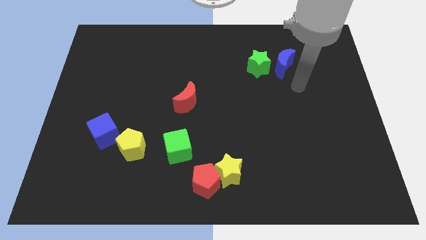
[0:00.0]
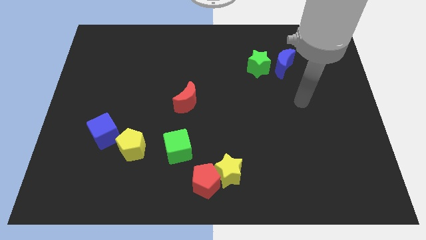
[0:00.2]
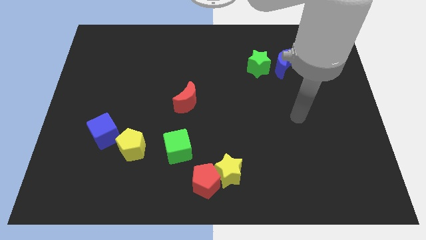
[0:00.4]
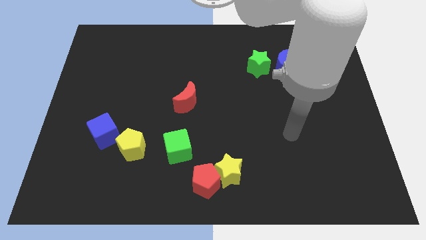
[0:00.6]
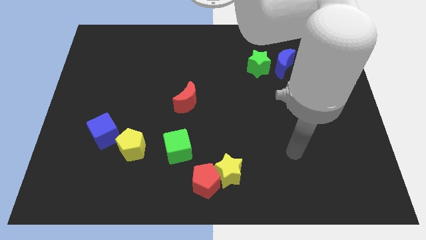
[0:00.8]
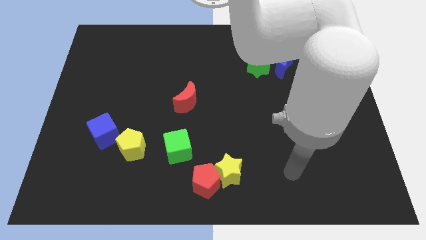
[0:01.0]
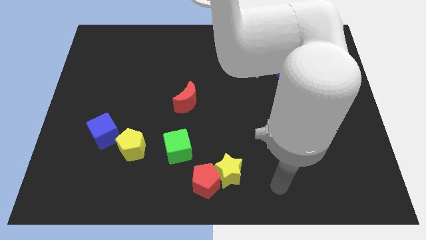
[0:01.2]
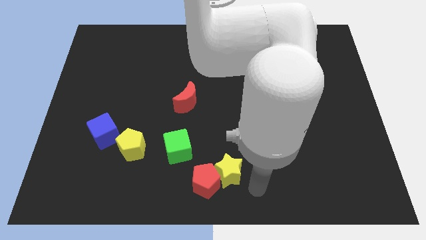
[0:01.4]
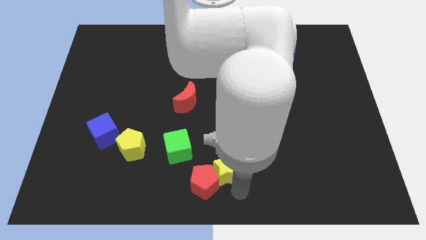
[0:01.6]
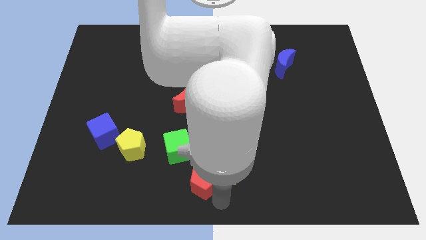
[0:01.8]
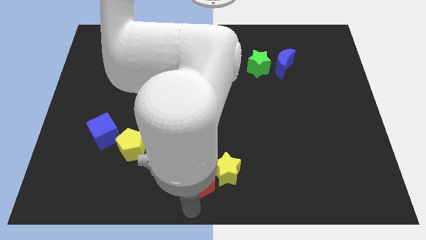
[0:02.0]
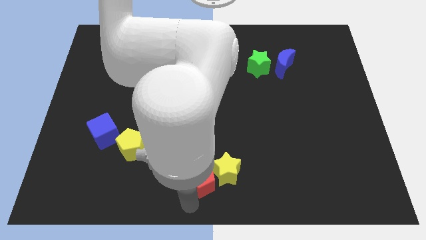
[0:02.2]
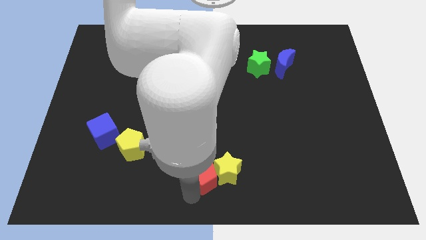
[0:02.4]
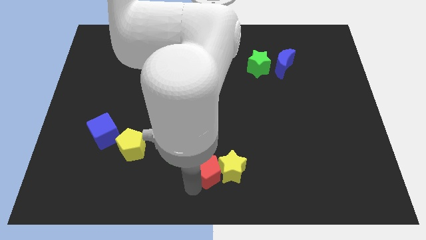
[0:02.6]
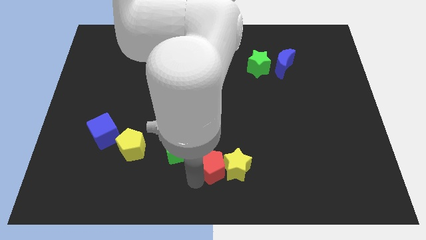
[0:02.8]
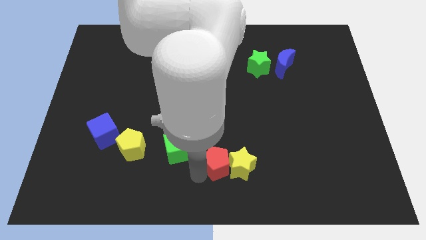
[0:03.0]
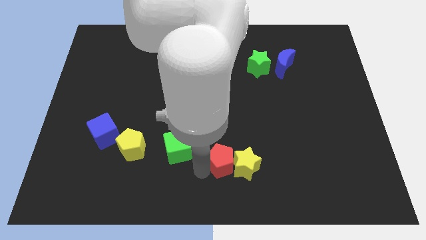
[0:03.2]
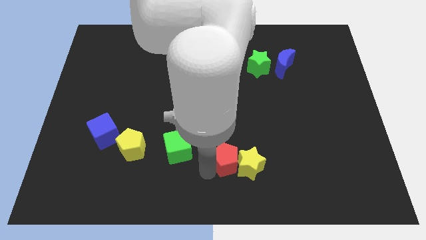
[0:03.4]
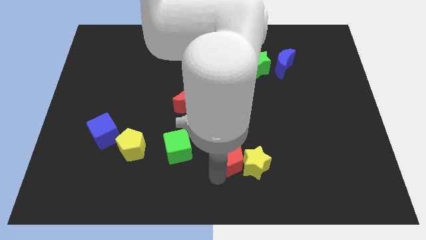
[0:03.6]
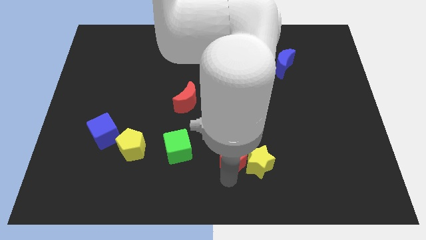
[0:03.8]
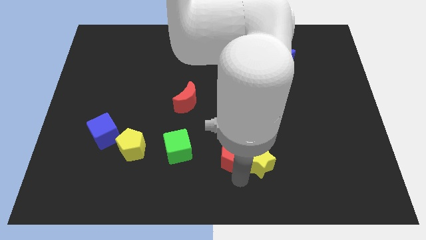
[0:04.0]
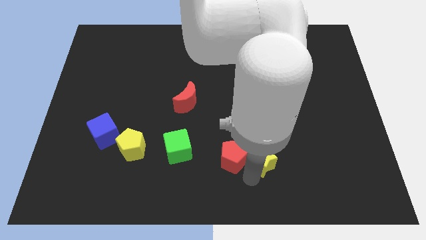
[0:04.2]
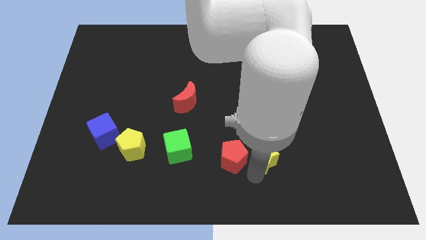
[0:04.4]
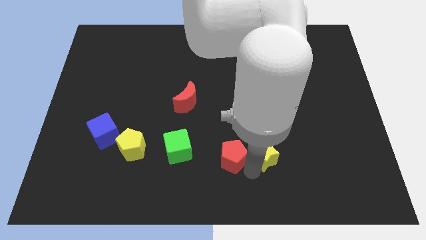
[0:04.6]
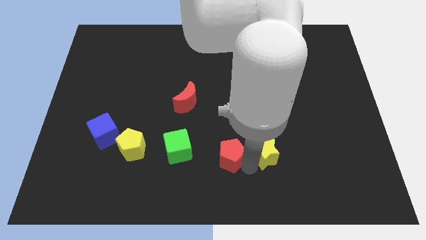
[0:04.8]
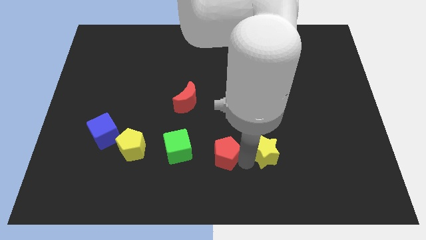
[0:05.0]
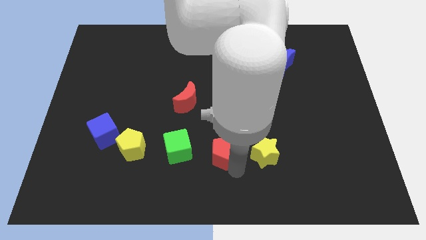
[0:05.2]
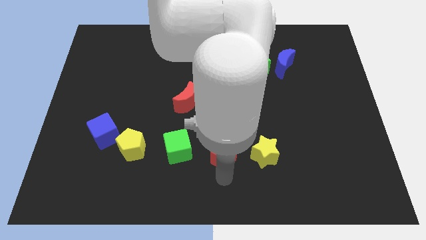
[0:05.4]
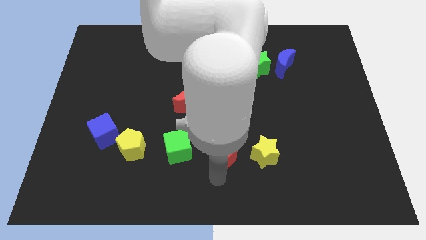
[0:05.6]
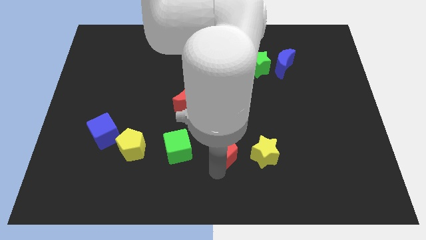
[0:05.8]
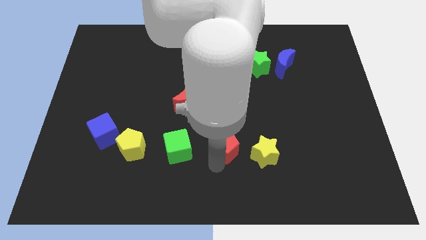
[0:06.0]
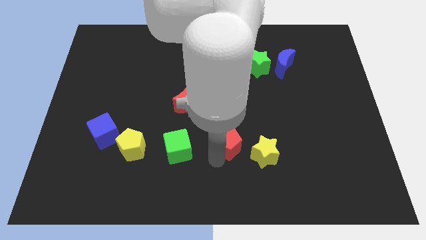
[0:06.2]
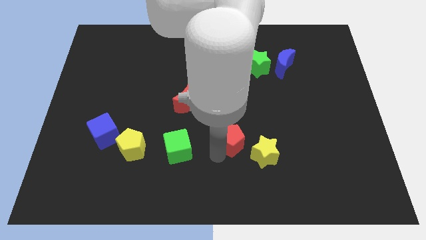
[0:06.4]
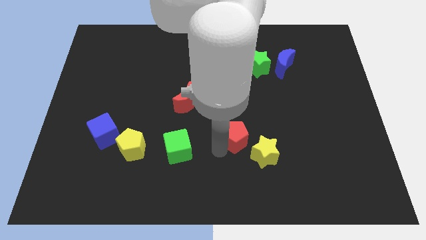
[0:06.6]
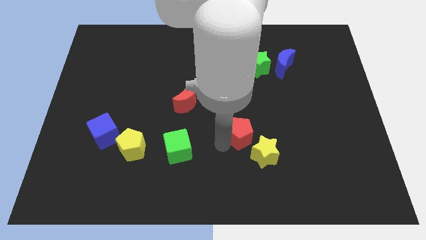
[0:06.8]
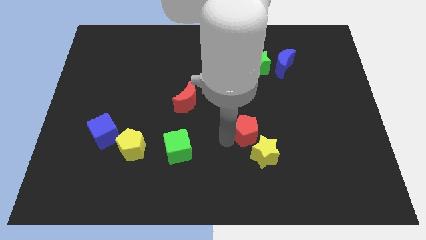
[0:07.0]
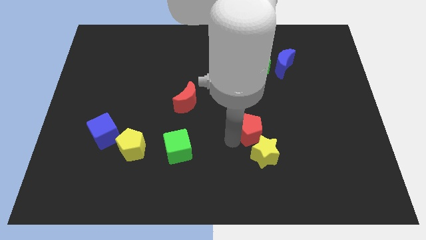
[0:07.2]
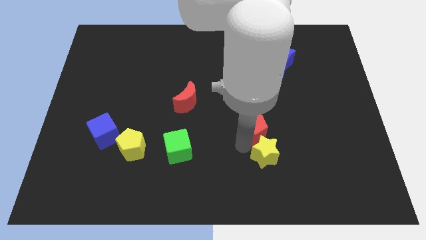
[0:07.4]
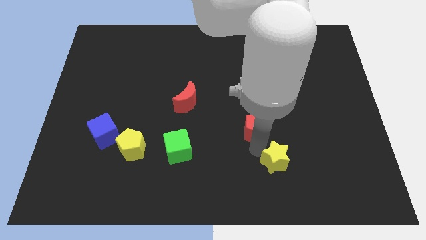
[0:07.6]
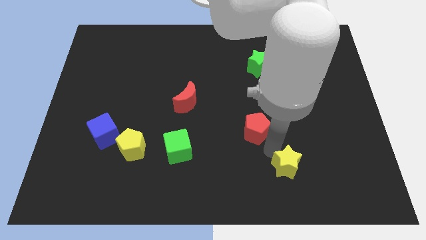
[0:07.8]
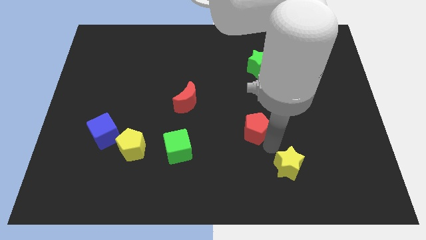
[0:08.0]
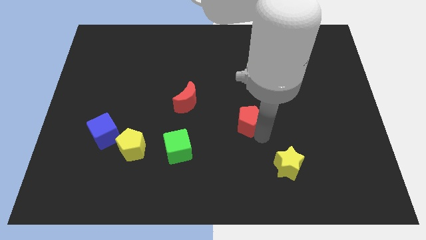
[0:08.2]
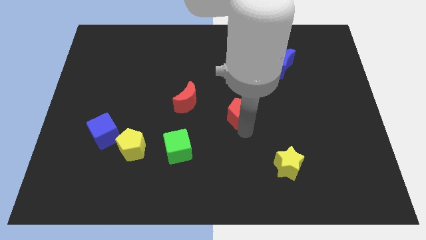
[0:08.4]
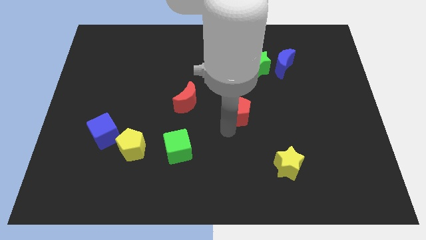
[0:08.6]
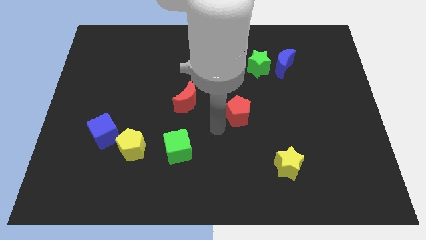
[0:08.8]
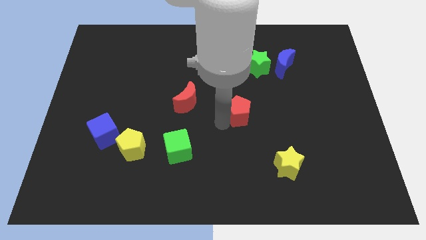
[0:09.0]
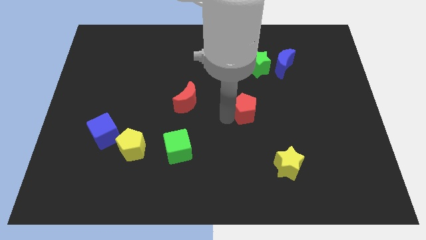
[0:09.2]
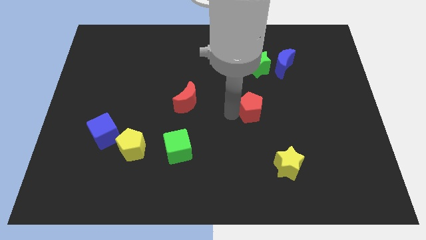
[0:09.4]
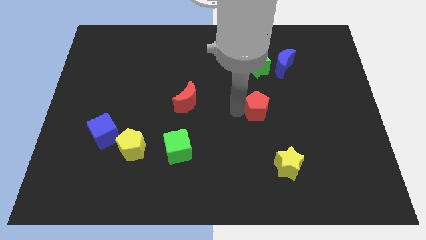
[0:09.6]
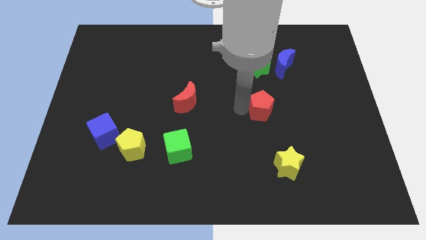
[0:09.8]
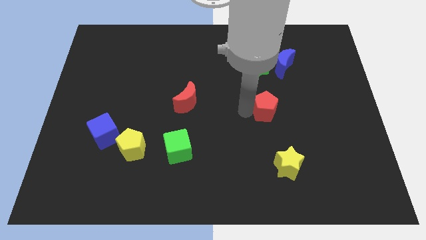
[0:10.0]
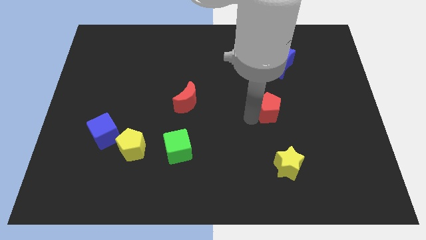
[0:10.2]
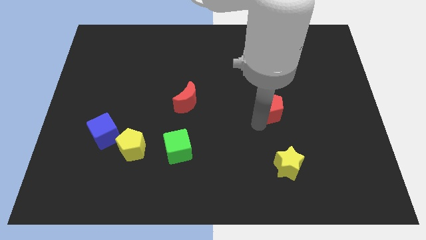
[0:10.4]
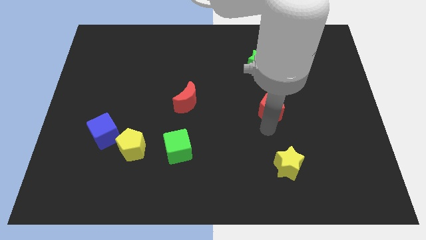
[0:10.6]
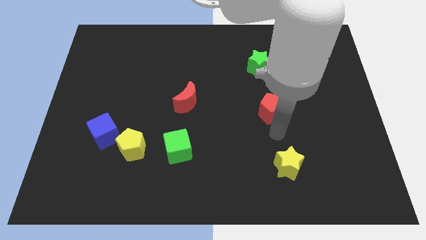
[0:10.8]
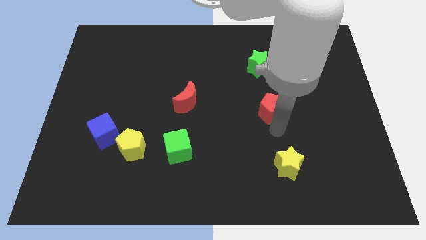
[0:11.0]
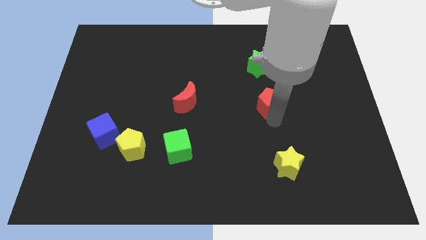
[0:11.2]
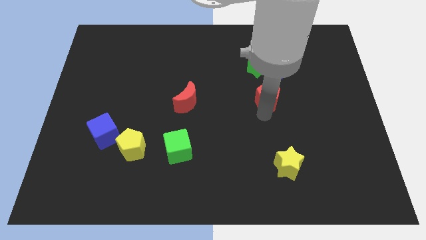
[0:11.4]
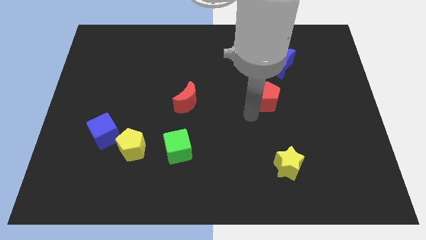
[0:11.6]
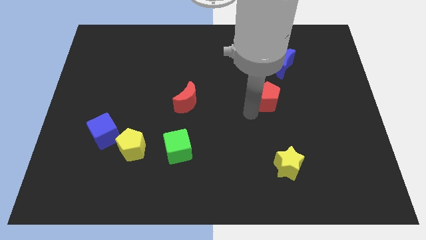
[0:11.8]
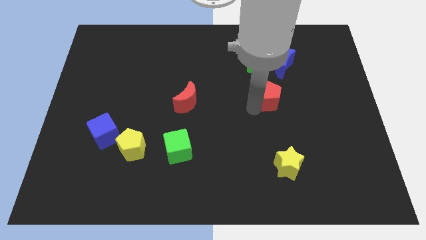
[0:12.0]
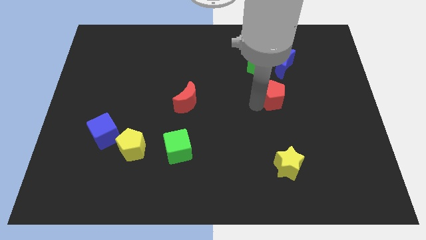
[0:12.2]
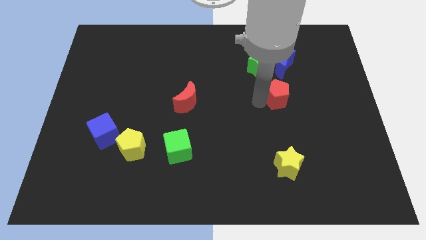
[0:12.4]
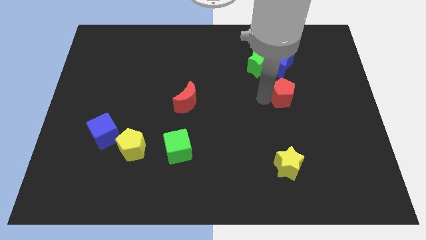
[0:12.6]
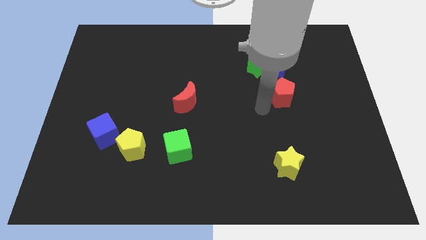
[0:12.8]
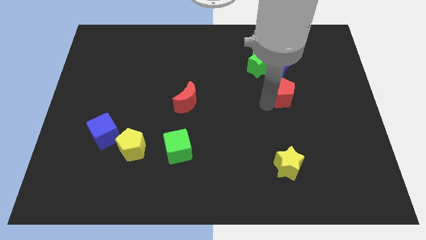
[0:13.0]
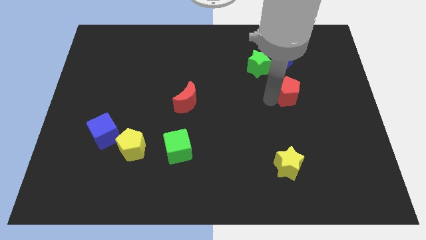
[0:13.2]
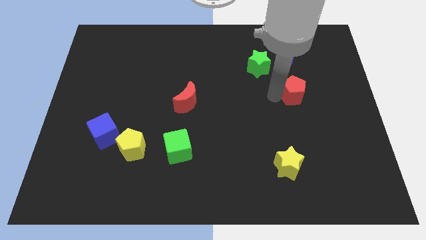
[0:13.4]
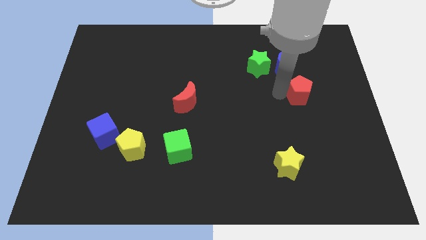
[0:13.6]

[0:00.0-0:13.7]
push the red pentagon to the bottom right side of the blue moon
